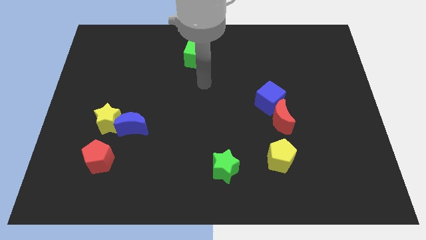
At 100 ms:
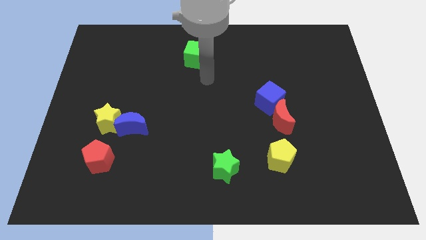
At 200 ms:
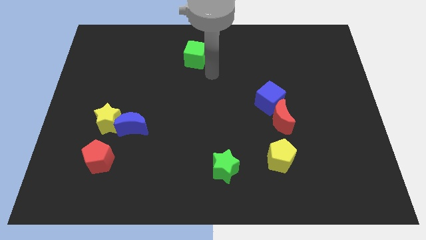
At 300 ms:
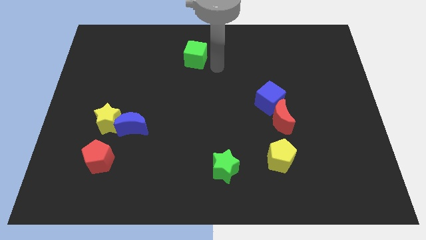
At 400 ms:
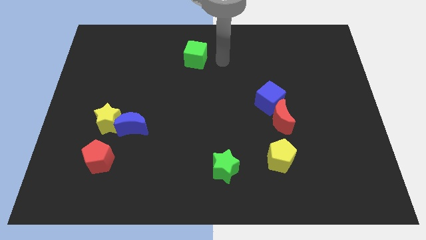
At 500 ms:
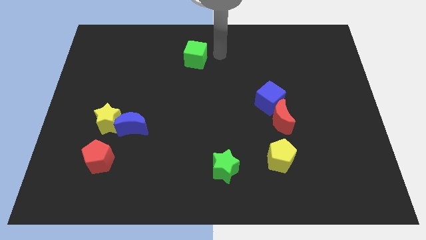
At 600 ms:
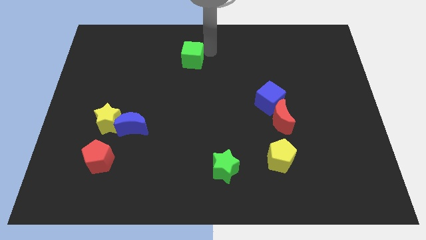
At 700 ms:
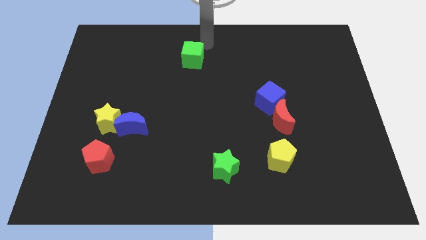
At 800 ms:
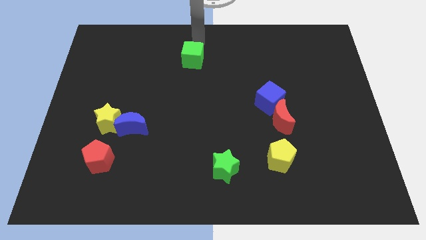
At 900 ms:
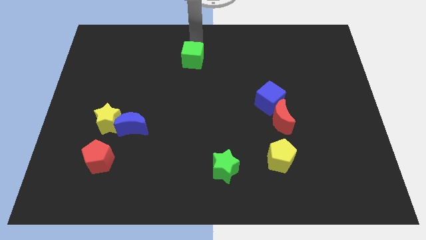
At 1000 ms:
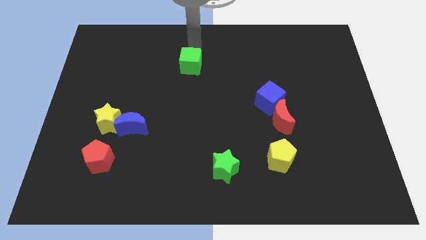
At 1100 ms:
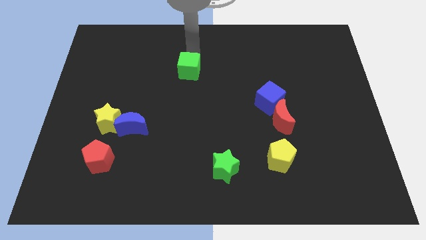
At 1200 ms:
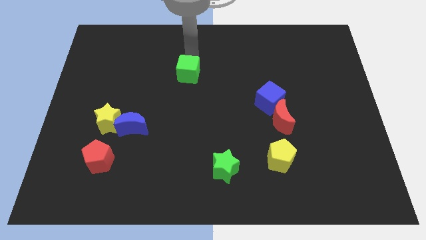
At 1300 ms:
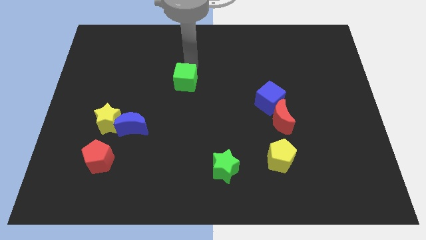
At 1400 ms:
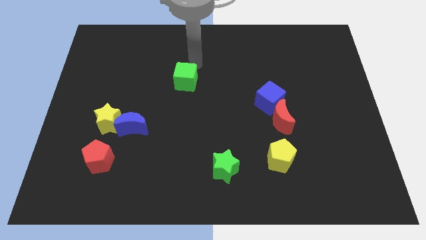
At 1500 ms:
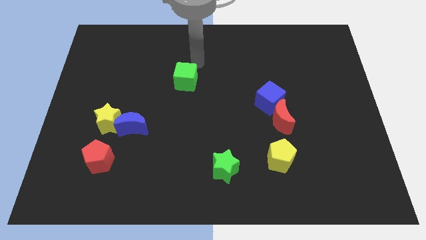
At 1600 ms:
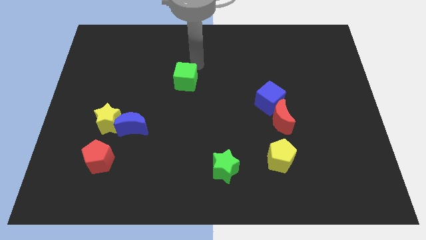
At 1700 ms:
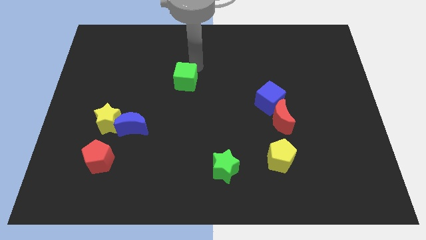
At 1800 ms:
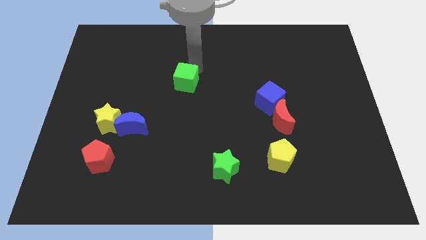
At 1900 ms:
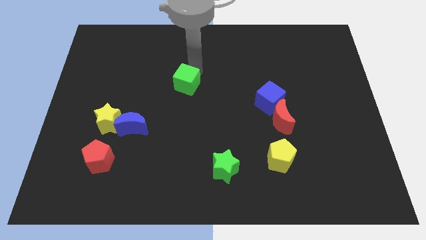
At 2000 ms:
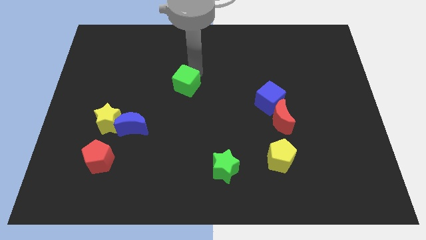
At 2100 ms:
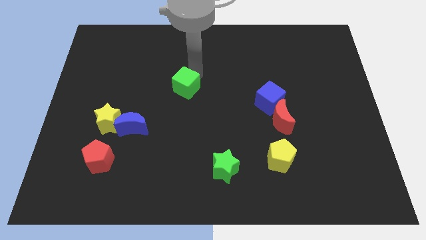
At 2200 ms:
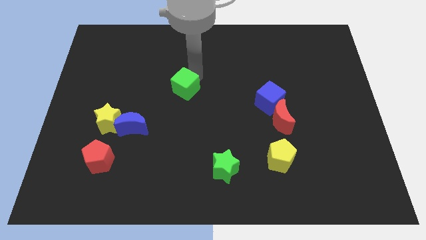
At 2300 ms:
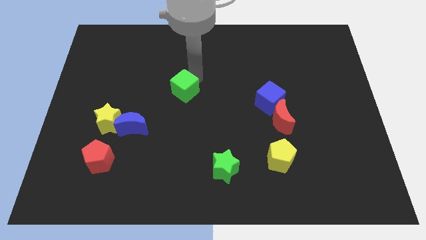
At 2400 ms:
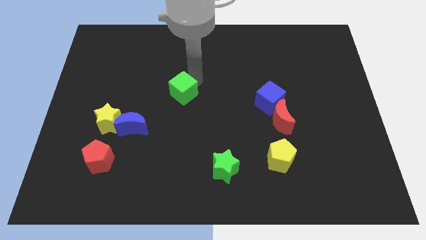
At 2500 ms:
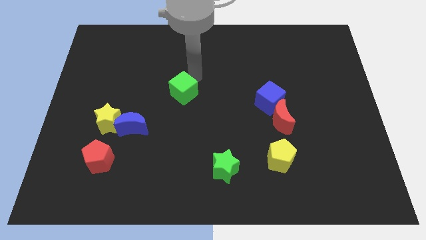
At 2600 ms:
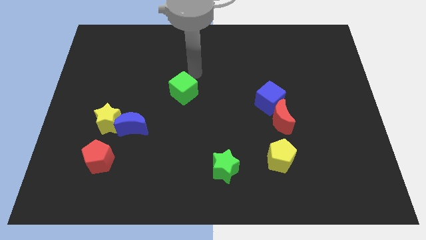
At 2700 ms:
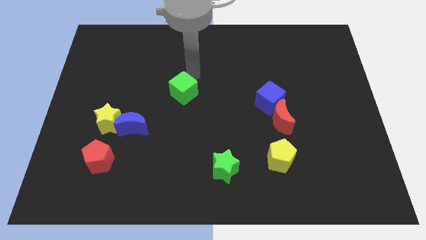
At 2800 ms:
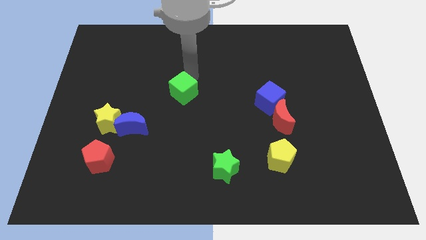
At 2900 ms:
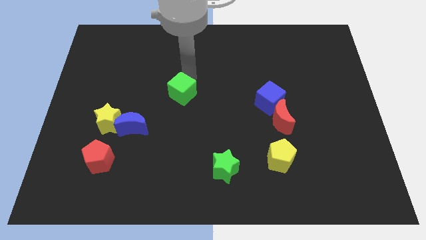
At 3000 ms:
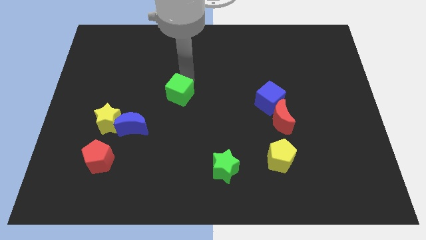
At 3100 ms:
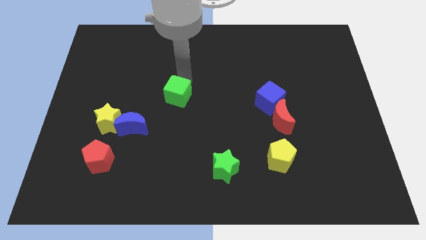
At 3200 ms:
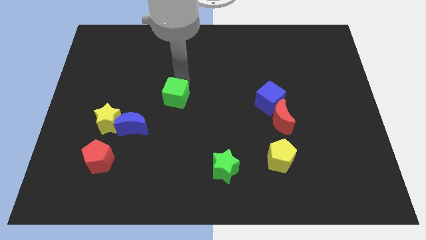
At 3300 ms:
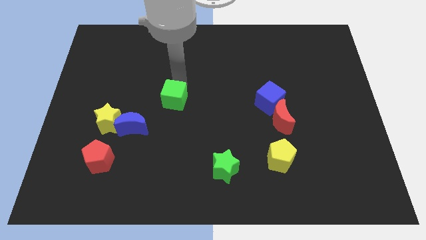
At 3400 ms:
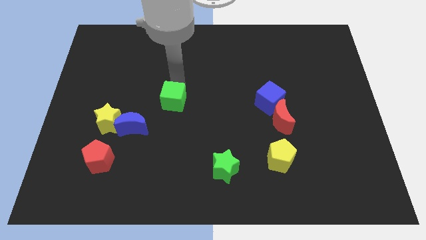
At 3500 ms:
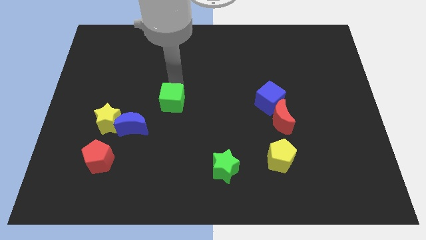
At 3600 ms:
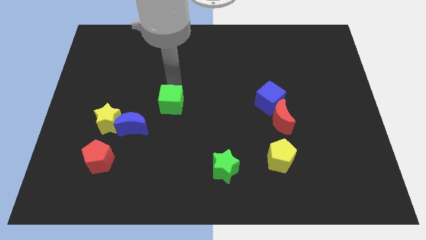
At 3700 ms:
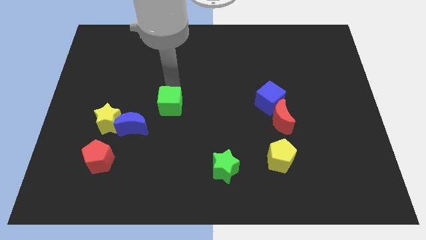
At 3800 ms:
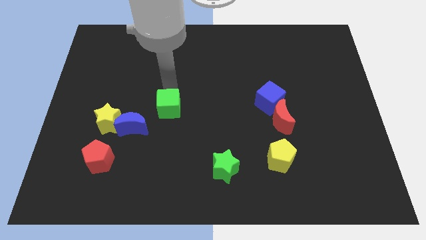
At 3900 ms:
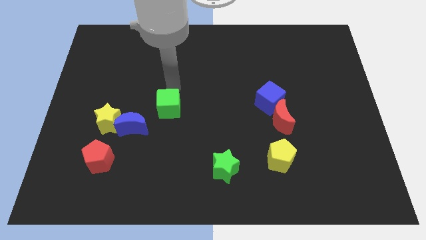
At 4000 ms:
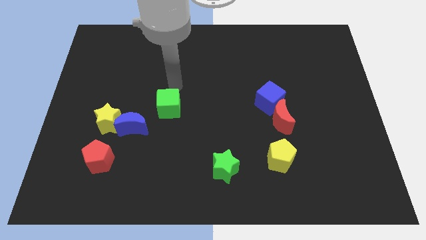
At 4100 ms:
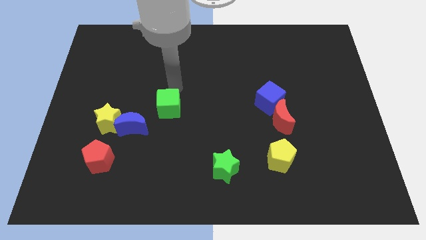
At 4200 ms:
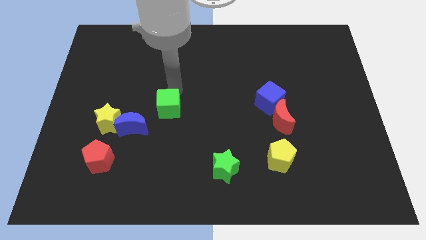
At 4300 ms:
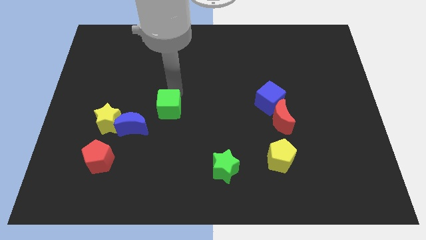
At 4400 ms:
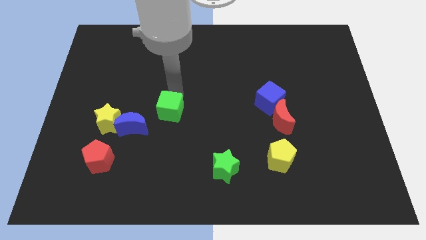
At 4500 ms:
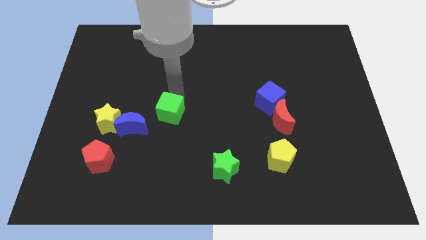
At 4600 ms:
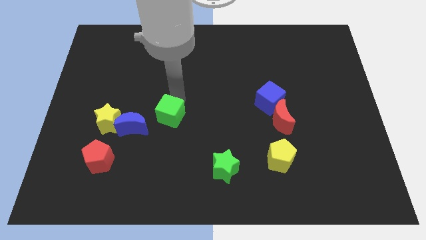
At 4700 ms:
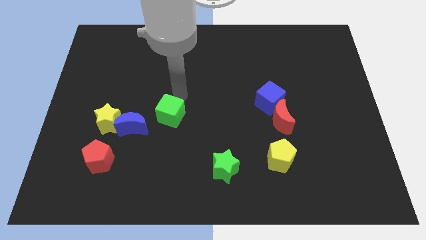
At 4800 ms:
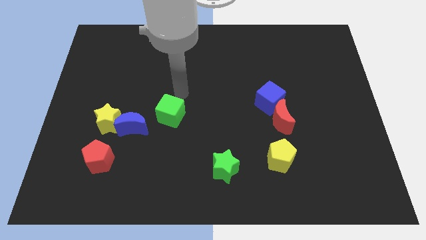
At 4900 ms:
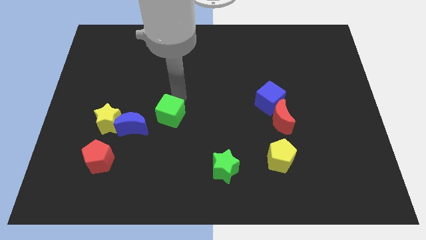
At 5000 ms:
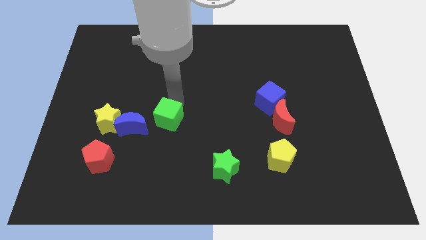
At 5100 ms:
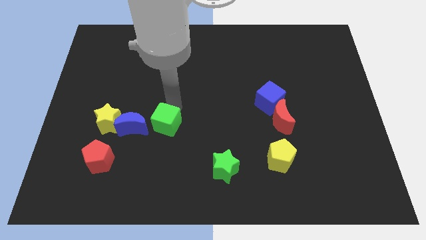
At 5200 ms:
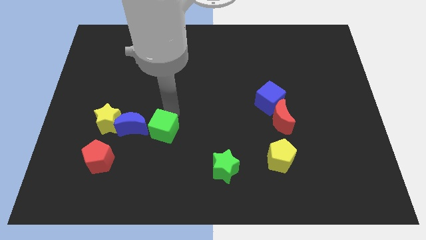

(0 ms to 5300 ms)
put the green cube diagonally down and to the right of the blue moon

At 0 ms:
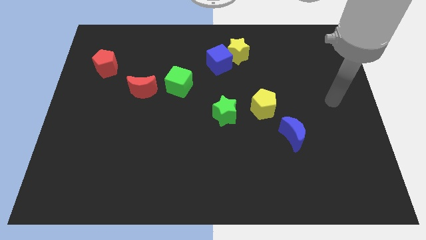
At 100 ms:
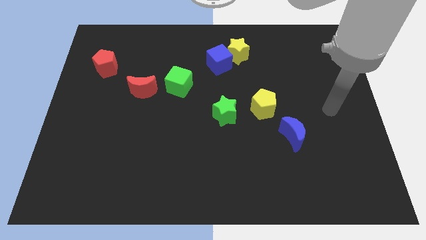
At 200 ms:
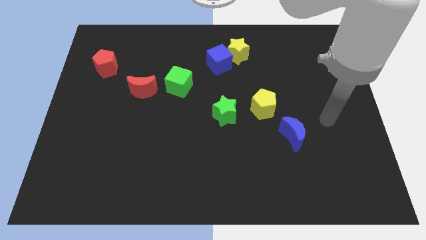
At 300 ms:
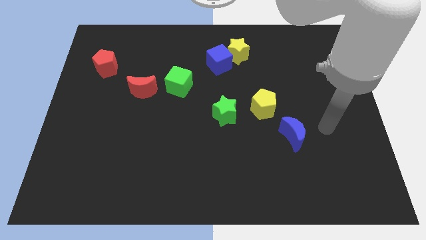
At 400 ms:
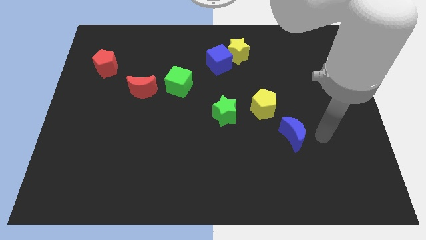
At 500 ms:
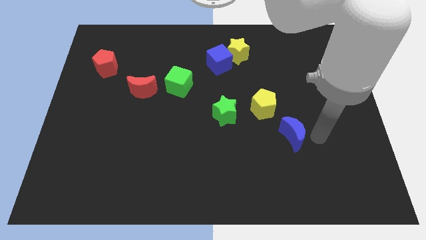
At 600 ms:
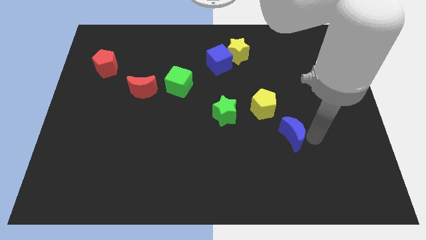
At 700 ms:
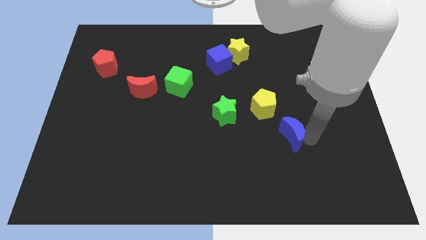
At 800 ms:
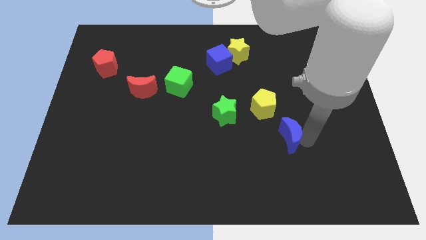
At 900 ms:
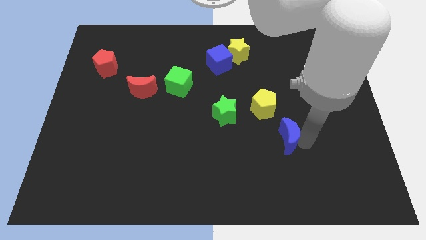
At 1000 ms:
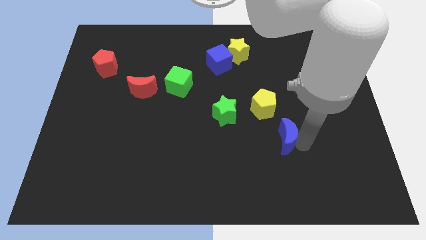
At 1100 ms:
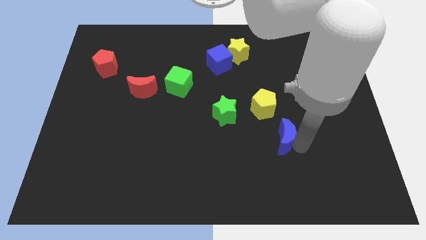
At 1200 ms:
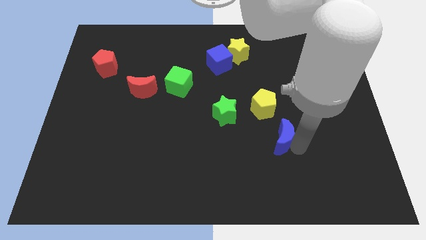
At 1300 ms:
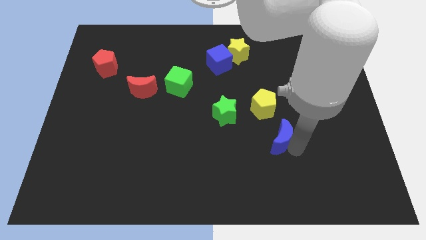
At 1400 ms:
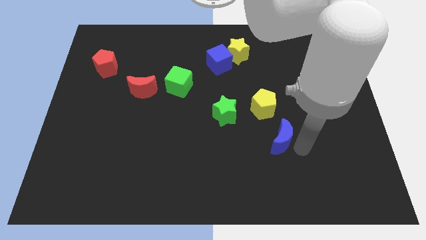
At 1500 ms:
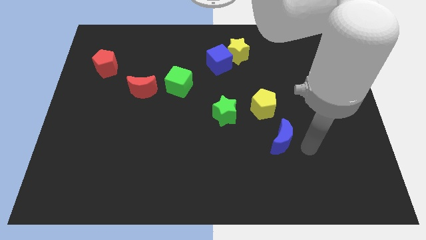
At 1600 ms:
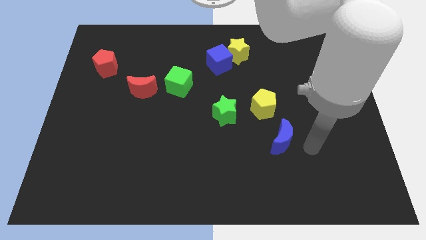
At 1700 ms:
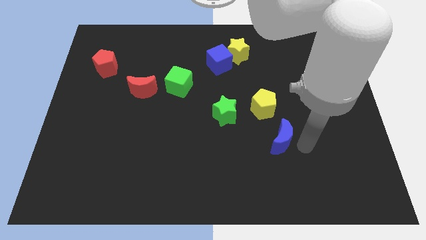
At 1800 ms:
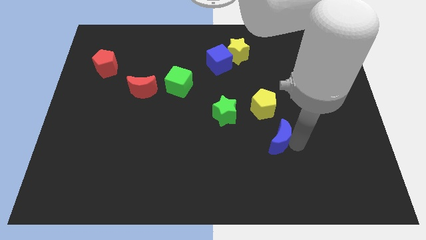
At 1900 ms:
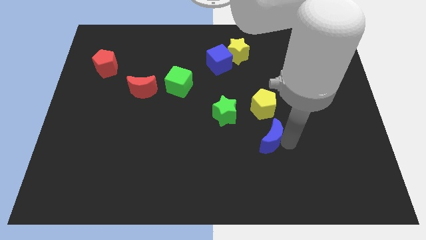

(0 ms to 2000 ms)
put the blue moon to the bottom right of the green star
